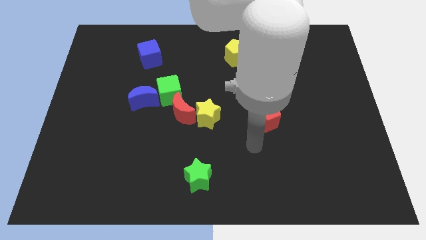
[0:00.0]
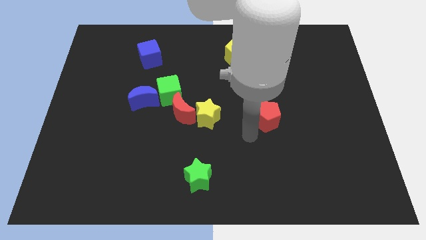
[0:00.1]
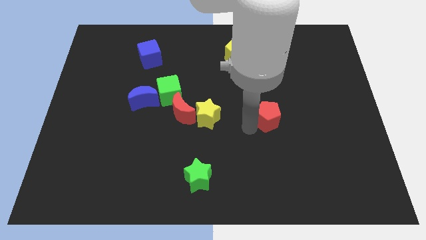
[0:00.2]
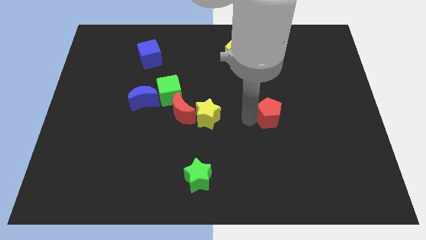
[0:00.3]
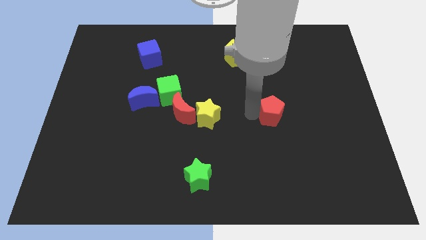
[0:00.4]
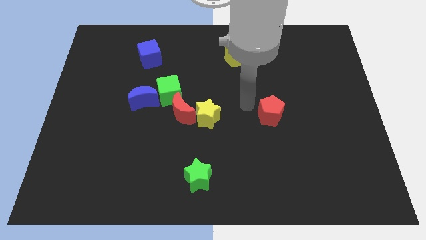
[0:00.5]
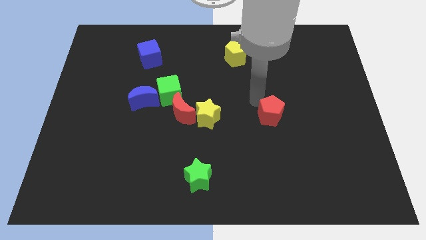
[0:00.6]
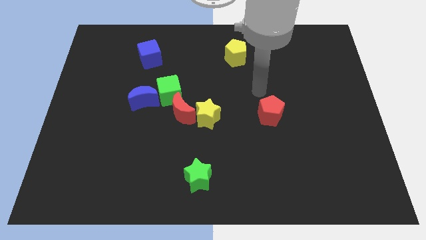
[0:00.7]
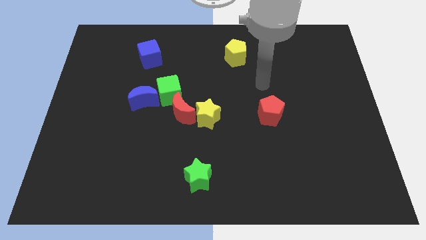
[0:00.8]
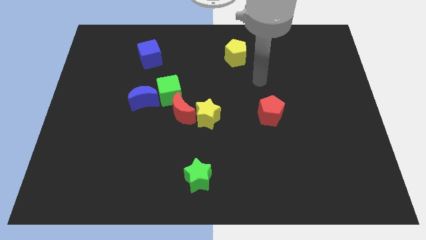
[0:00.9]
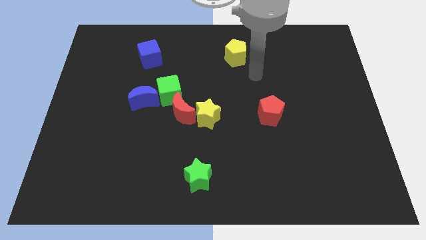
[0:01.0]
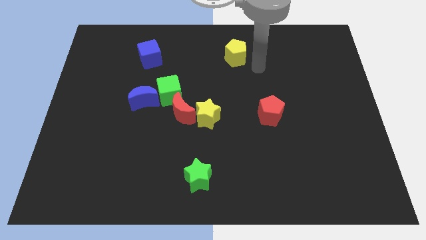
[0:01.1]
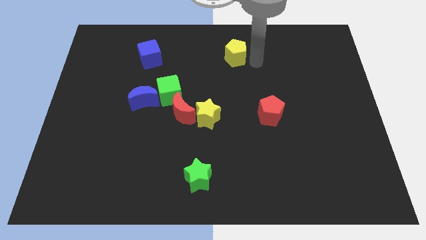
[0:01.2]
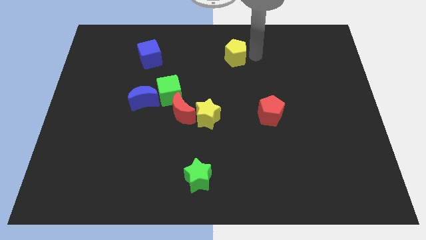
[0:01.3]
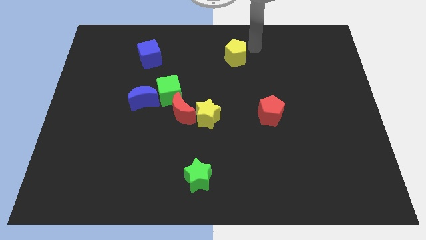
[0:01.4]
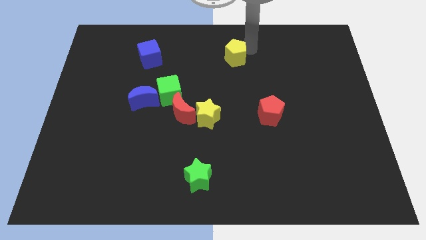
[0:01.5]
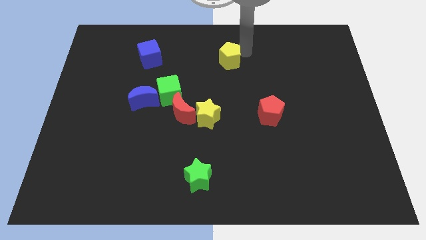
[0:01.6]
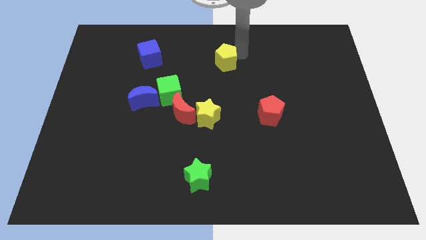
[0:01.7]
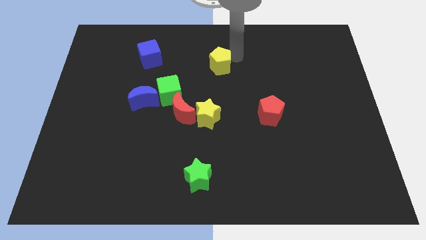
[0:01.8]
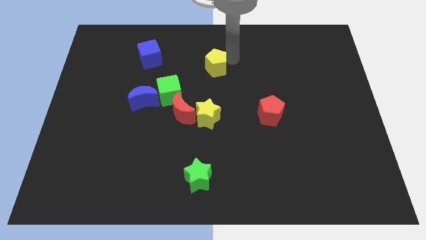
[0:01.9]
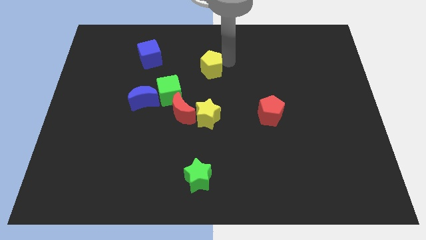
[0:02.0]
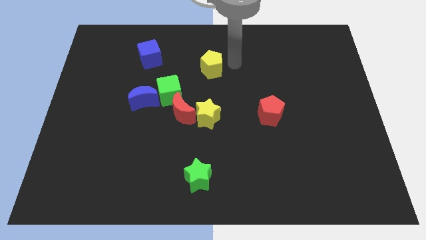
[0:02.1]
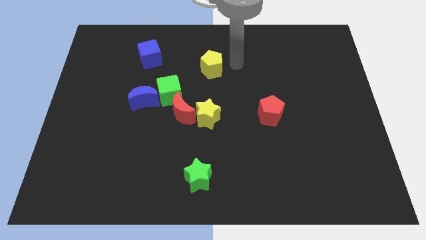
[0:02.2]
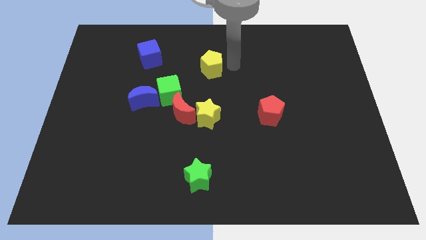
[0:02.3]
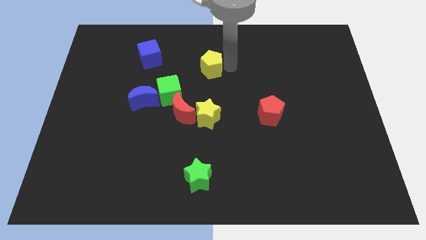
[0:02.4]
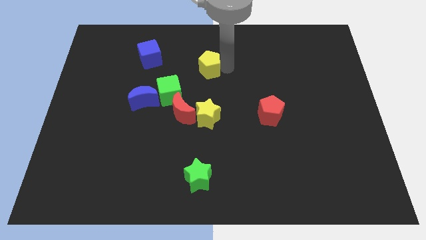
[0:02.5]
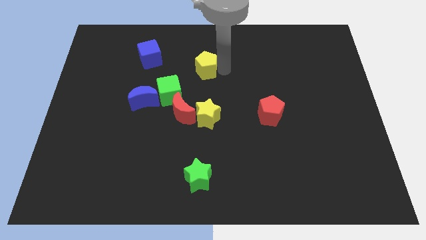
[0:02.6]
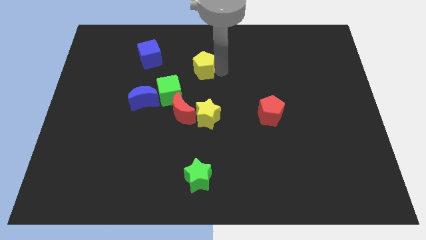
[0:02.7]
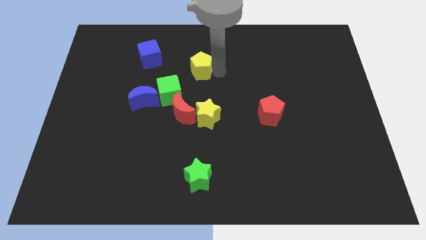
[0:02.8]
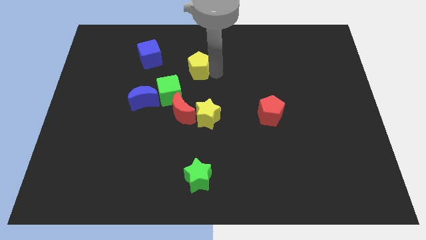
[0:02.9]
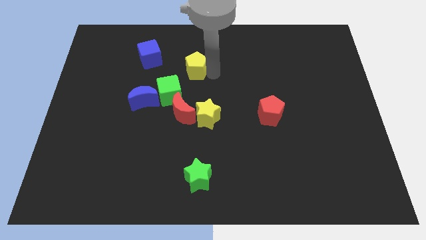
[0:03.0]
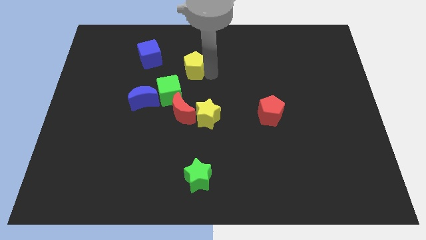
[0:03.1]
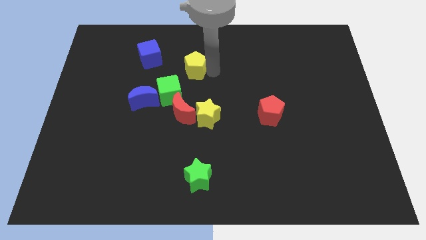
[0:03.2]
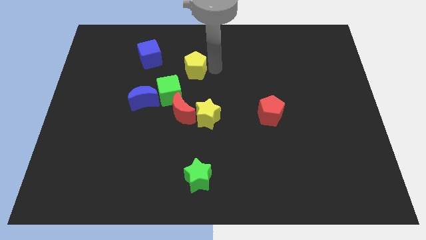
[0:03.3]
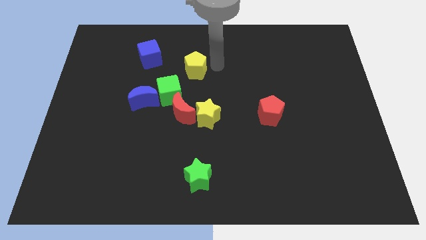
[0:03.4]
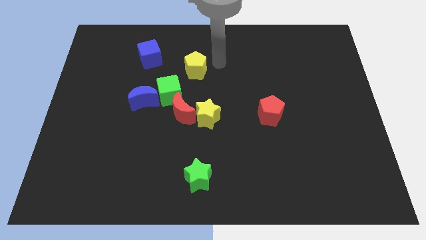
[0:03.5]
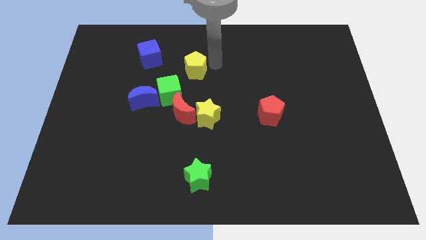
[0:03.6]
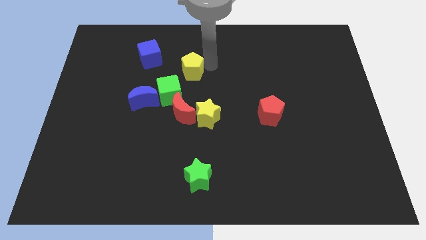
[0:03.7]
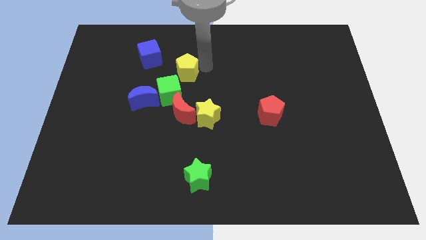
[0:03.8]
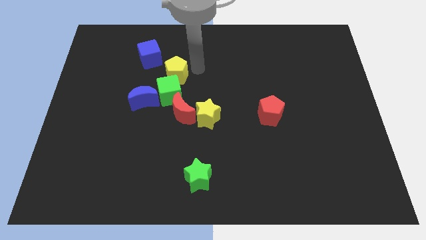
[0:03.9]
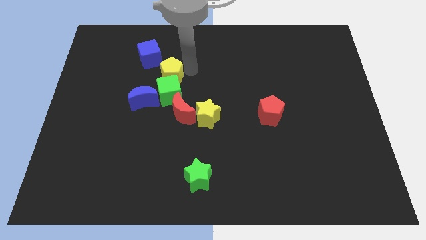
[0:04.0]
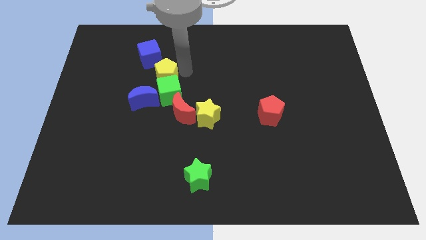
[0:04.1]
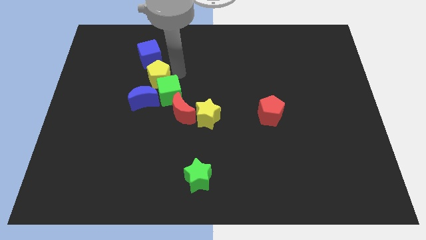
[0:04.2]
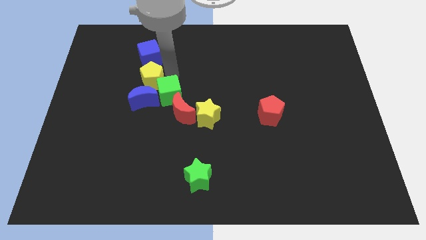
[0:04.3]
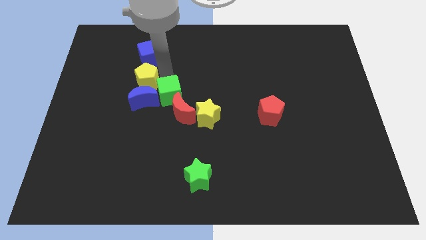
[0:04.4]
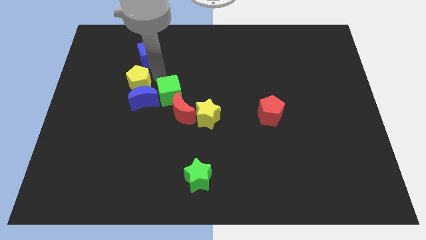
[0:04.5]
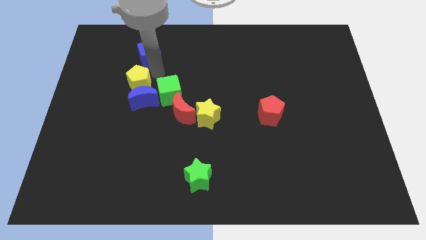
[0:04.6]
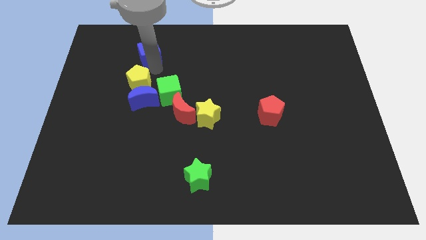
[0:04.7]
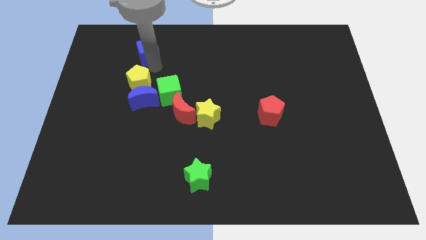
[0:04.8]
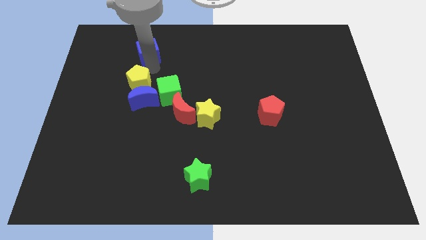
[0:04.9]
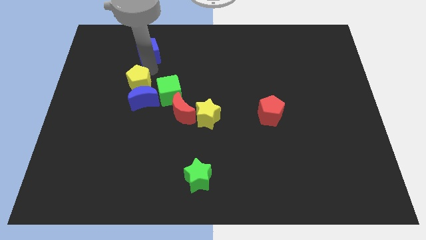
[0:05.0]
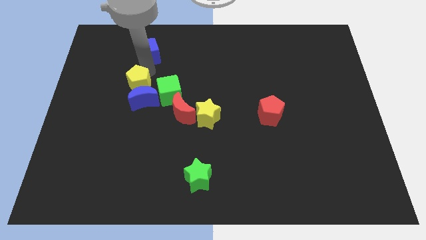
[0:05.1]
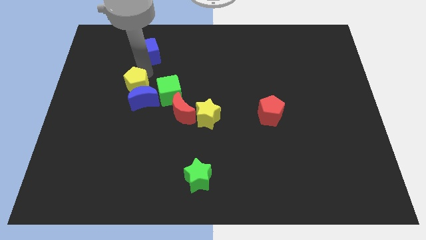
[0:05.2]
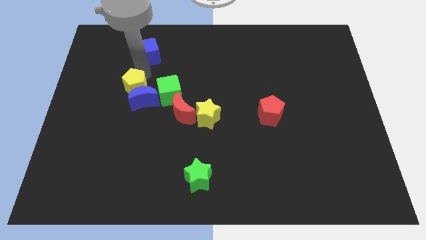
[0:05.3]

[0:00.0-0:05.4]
slide the yellow pentagon down and then left

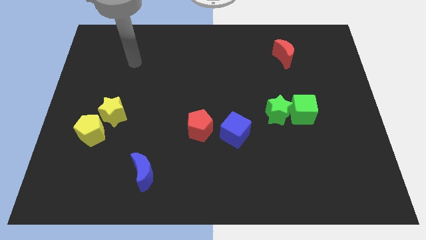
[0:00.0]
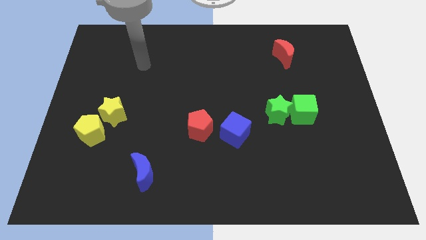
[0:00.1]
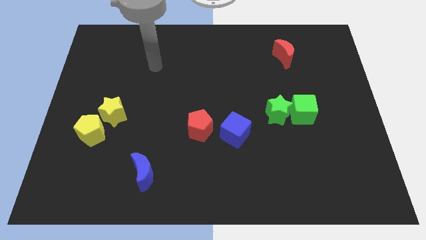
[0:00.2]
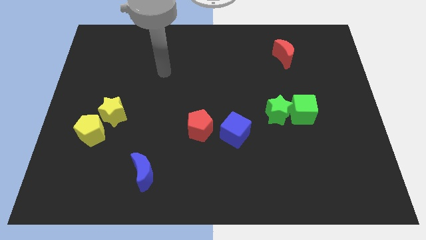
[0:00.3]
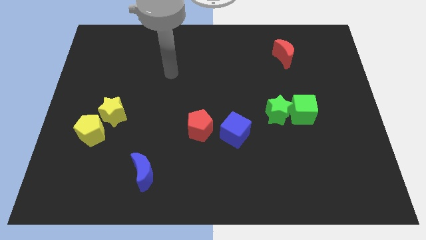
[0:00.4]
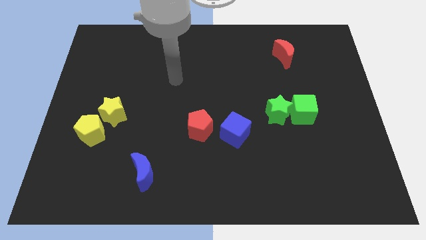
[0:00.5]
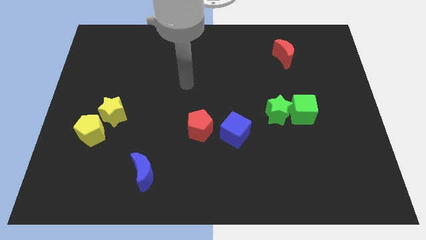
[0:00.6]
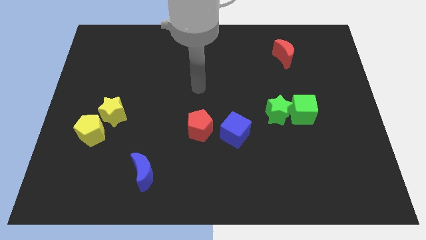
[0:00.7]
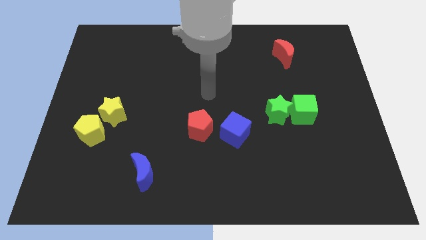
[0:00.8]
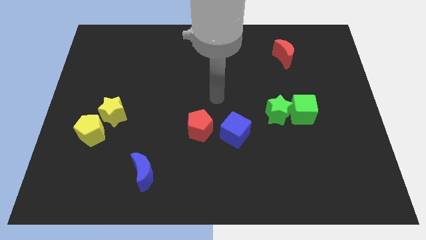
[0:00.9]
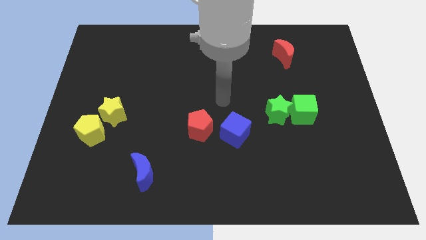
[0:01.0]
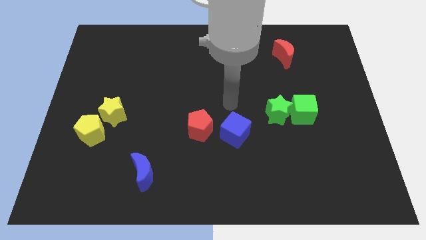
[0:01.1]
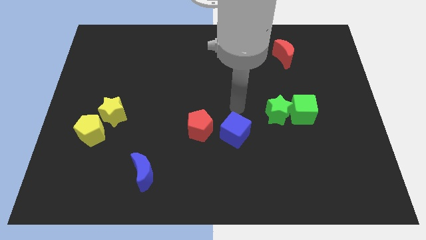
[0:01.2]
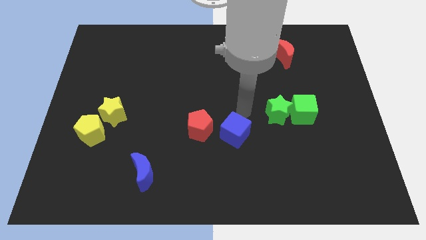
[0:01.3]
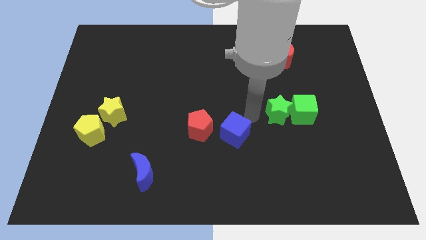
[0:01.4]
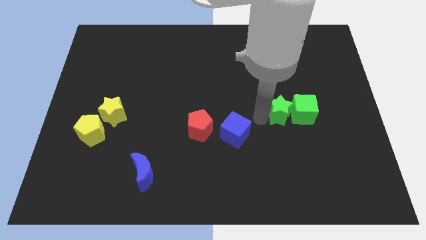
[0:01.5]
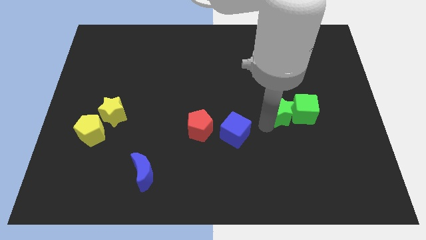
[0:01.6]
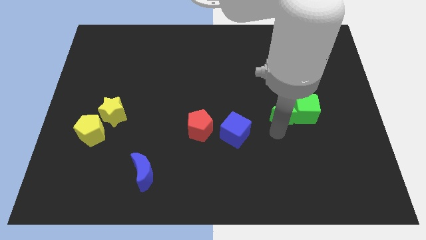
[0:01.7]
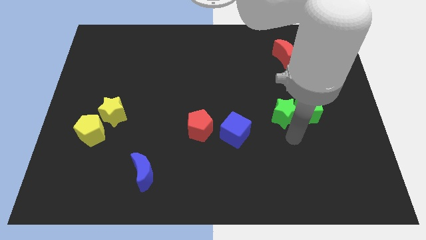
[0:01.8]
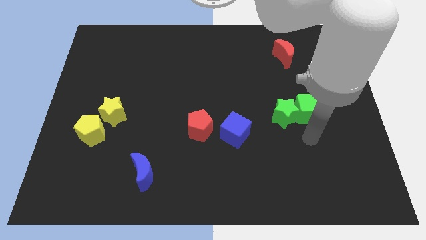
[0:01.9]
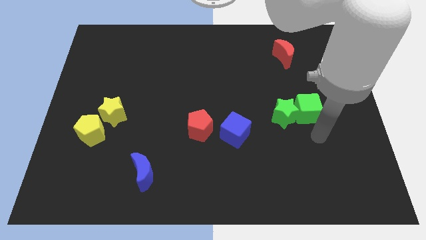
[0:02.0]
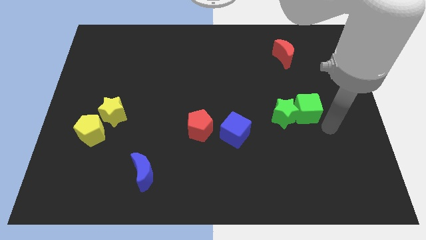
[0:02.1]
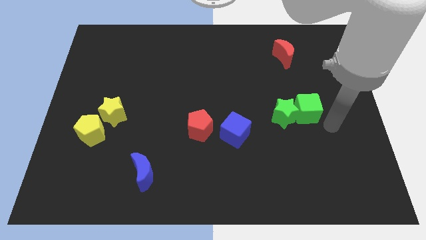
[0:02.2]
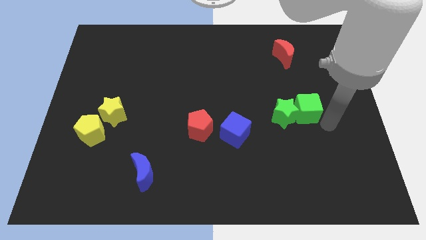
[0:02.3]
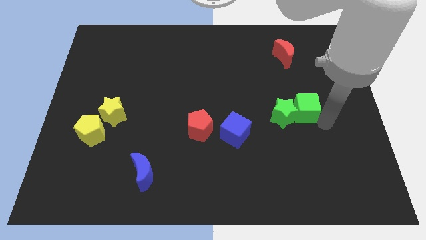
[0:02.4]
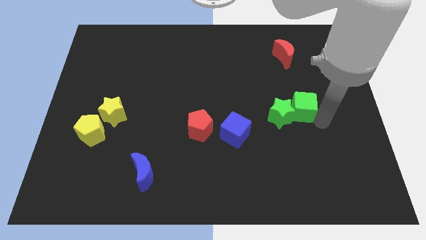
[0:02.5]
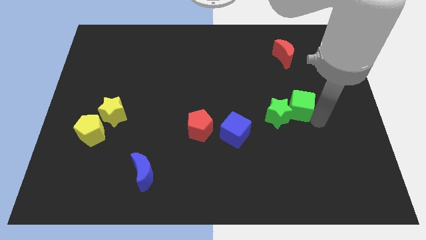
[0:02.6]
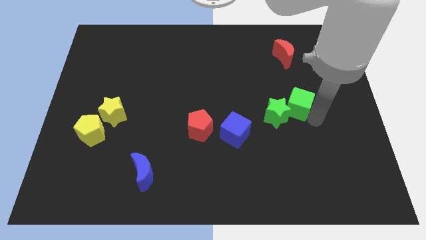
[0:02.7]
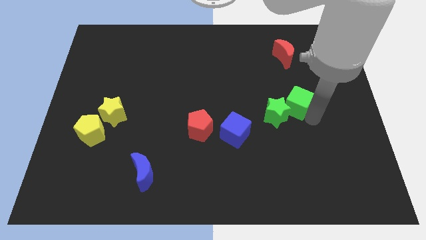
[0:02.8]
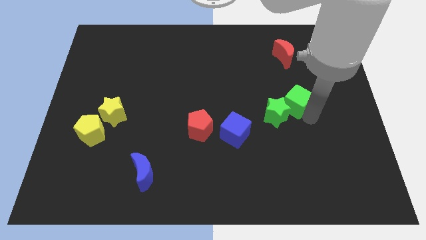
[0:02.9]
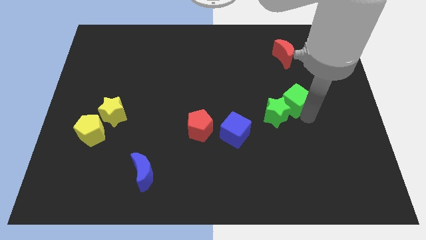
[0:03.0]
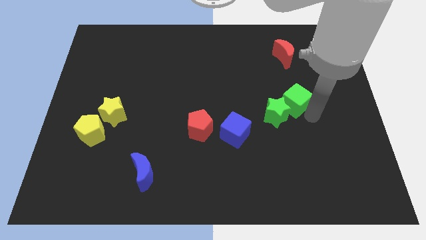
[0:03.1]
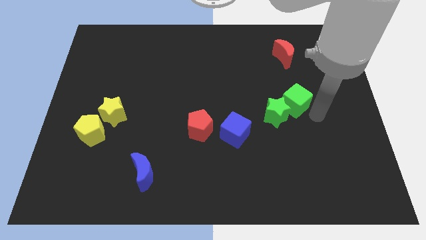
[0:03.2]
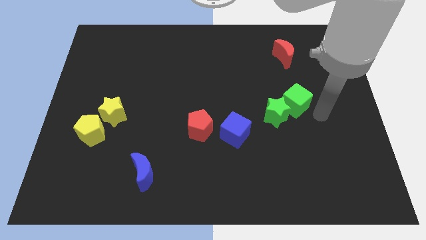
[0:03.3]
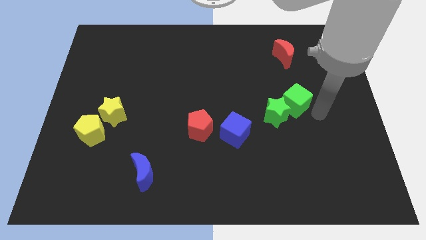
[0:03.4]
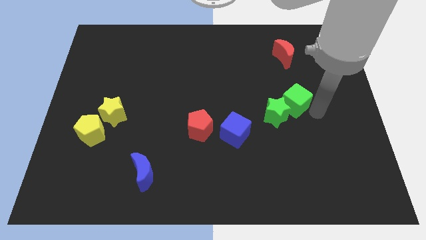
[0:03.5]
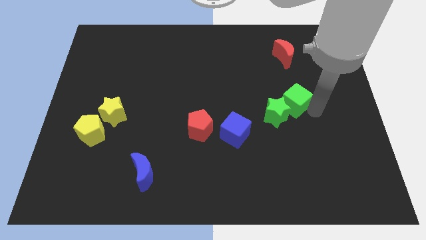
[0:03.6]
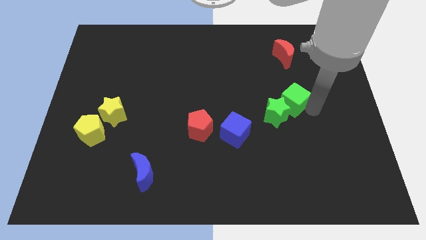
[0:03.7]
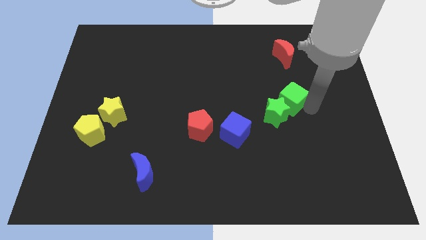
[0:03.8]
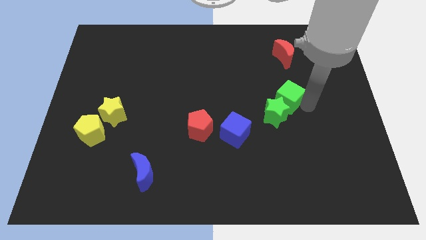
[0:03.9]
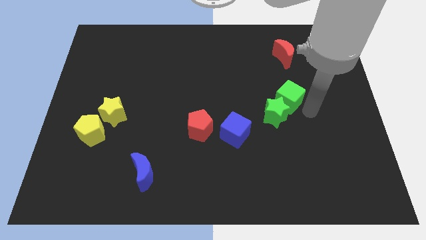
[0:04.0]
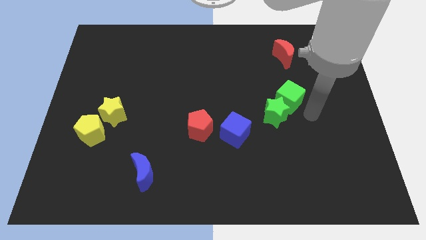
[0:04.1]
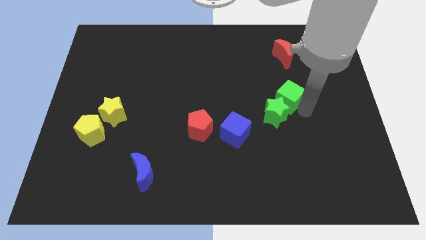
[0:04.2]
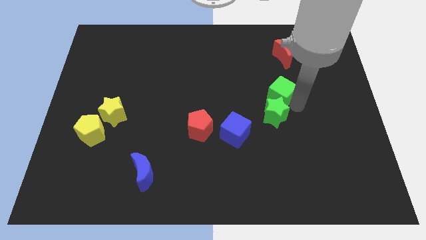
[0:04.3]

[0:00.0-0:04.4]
slide the green cube somewhat up and to the left
